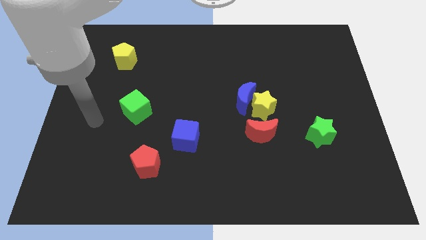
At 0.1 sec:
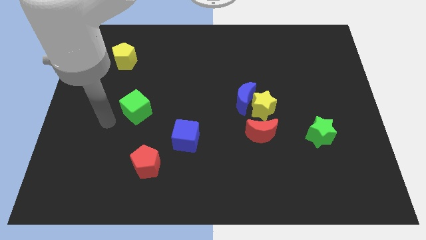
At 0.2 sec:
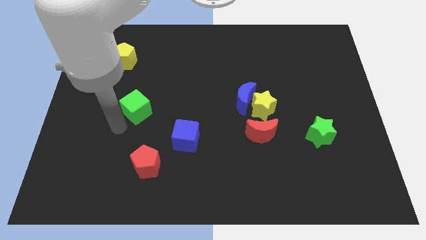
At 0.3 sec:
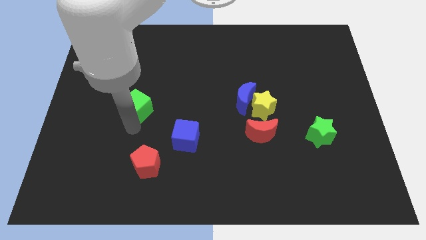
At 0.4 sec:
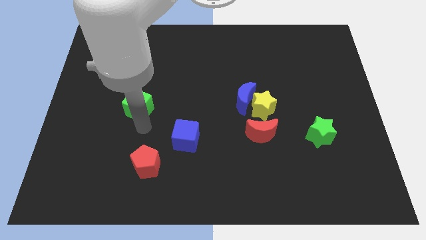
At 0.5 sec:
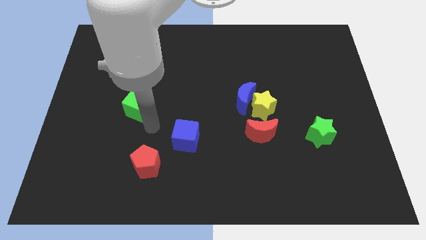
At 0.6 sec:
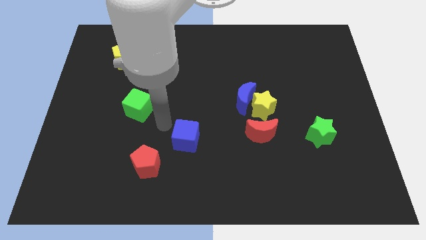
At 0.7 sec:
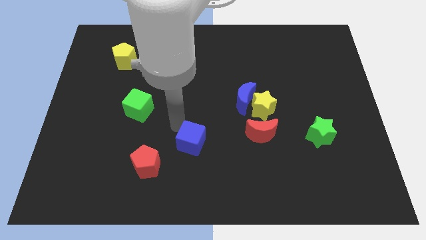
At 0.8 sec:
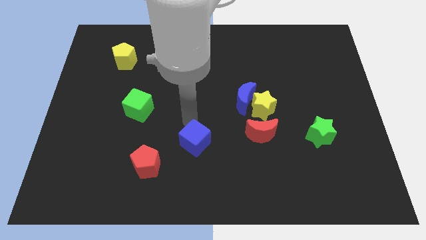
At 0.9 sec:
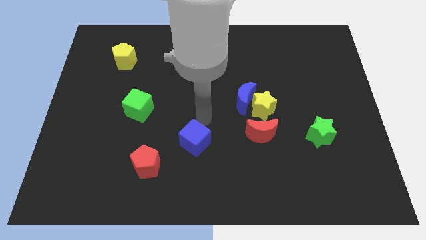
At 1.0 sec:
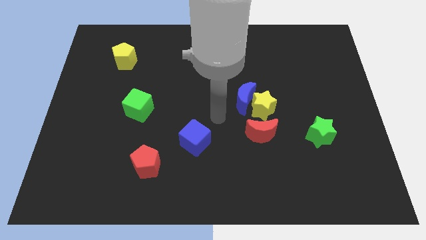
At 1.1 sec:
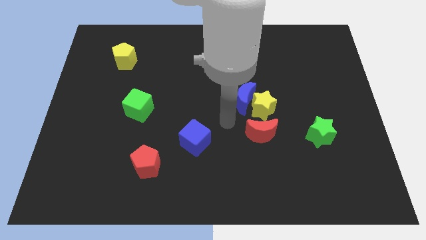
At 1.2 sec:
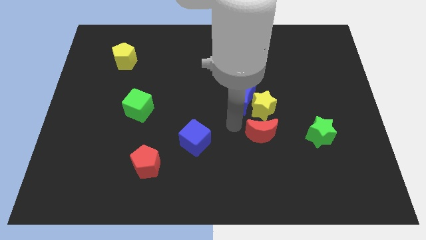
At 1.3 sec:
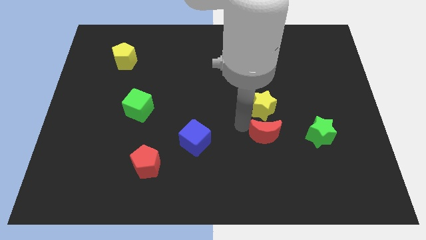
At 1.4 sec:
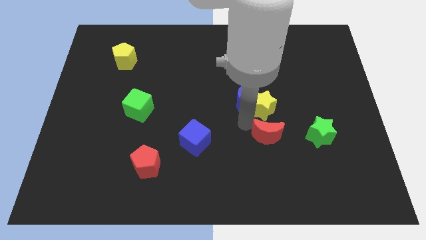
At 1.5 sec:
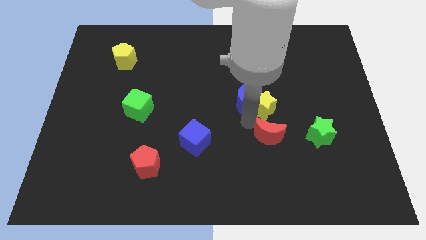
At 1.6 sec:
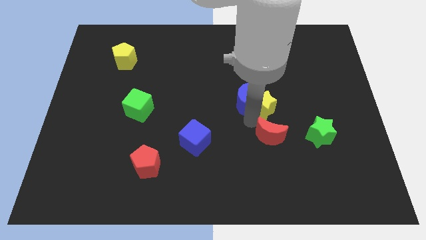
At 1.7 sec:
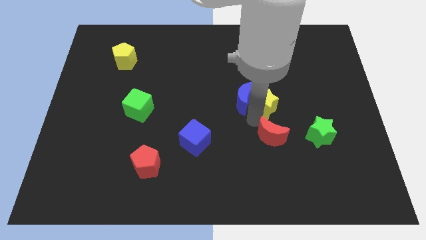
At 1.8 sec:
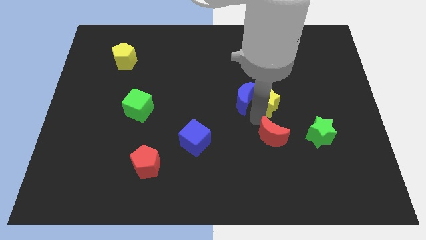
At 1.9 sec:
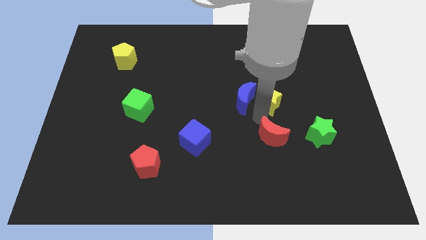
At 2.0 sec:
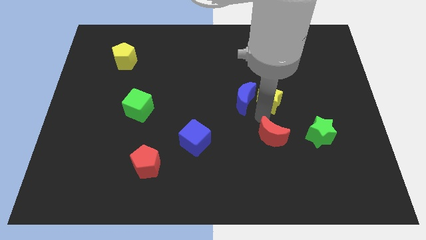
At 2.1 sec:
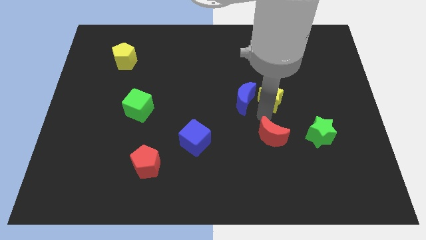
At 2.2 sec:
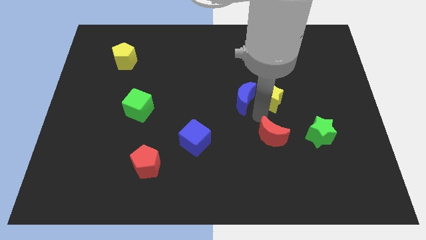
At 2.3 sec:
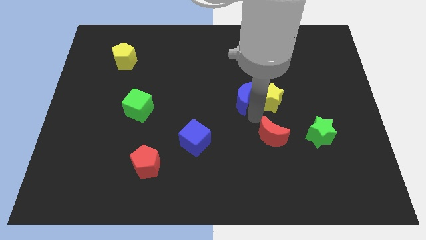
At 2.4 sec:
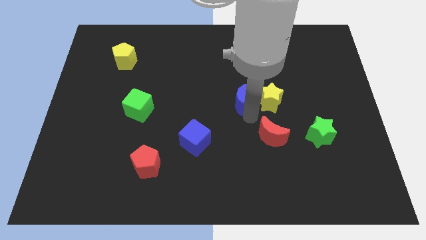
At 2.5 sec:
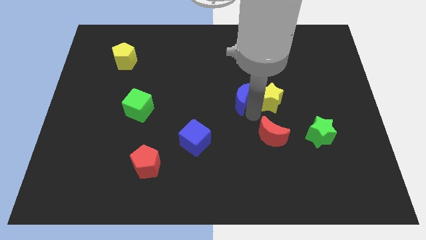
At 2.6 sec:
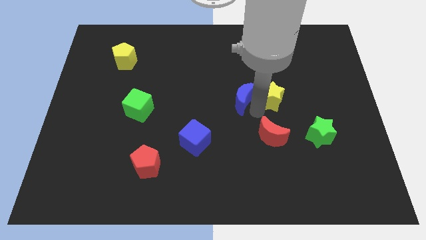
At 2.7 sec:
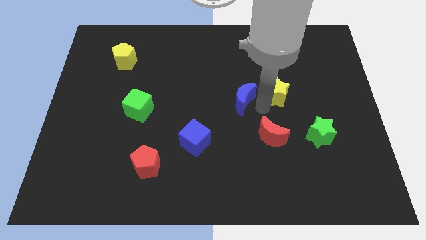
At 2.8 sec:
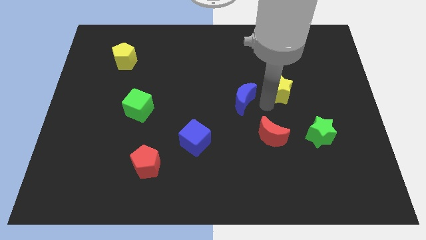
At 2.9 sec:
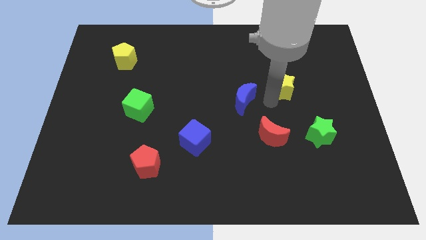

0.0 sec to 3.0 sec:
move the yellow star away from the blue moon and red moon

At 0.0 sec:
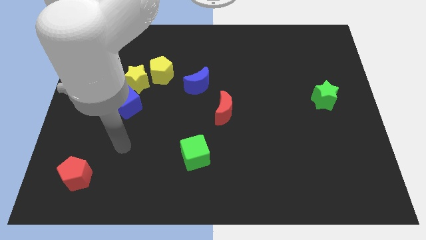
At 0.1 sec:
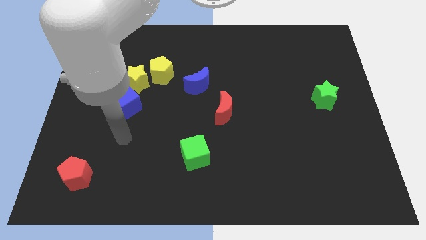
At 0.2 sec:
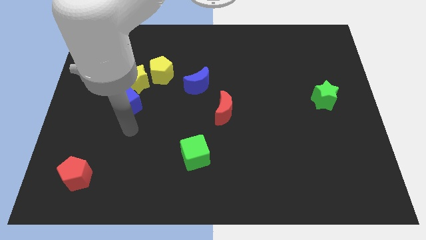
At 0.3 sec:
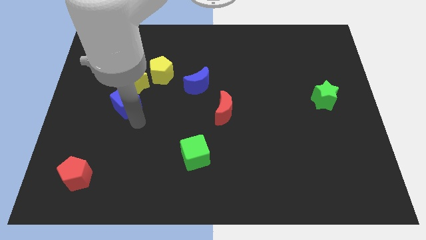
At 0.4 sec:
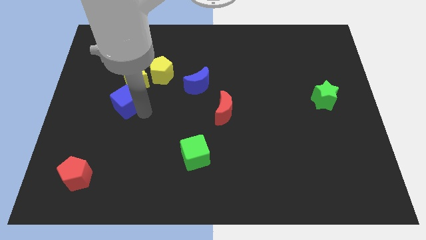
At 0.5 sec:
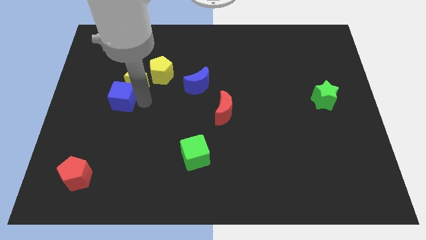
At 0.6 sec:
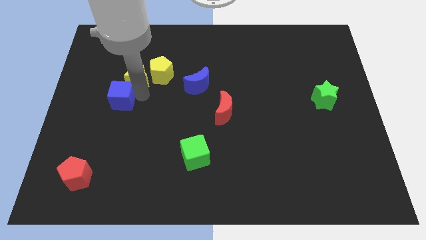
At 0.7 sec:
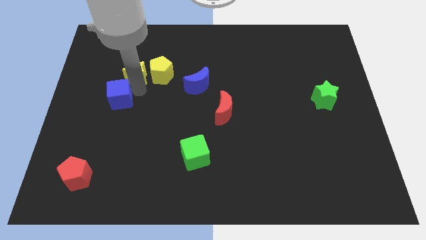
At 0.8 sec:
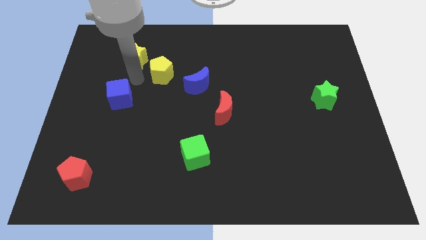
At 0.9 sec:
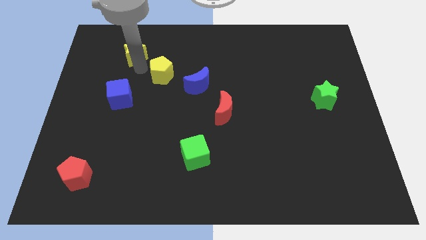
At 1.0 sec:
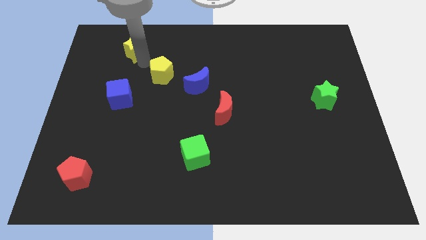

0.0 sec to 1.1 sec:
pull the yellow pentagon apart from the yellow star

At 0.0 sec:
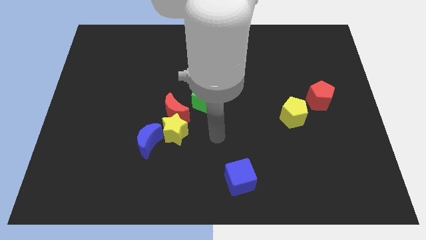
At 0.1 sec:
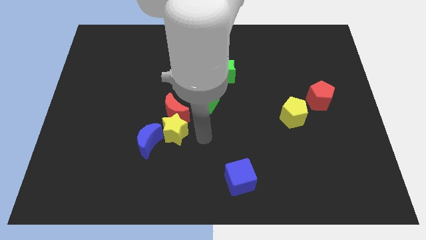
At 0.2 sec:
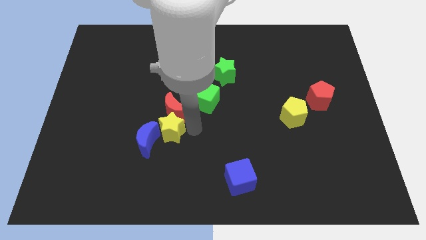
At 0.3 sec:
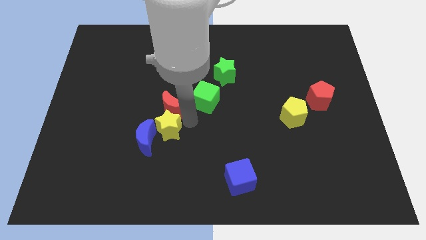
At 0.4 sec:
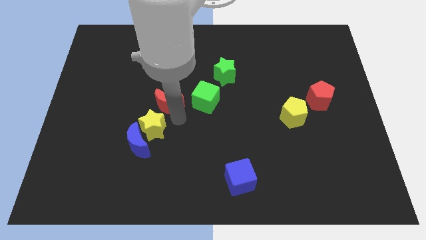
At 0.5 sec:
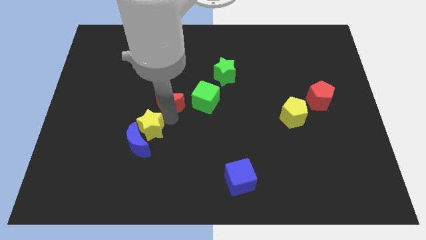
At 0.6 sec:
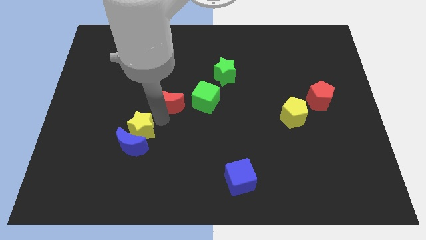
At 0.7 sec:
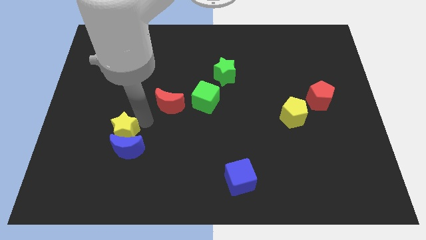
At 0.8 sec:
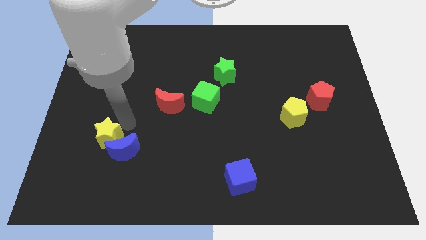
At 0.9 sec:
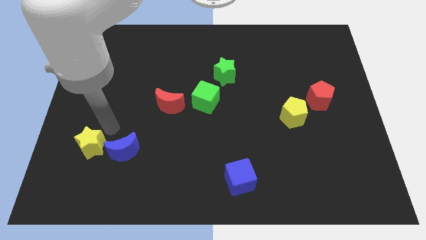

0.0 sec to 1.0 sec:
pull the yellow star apart from the red moon and blue moon

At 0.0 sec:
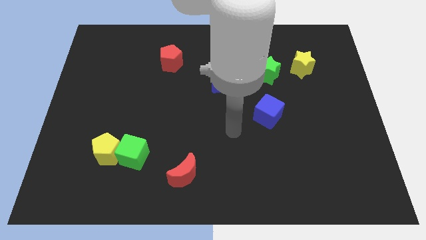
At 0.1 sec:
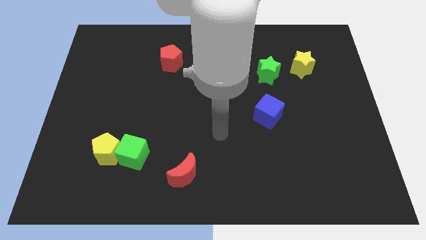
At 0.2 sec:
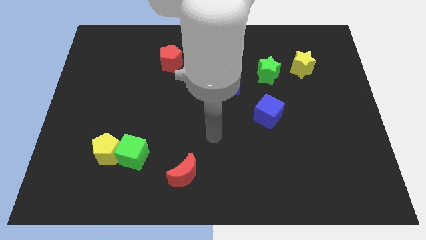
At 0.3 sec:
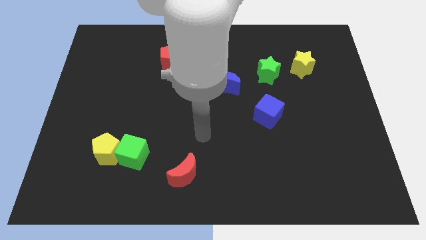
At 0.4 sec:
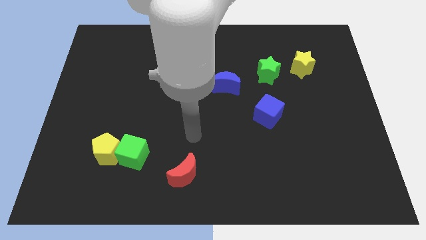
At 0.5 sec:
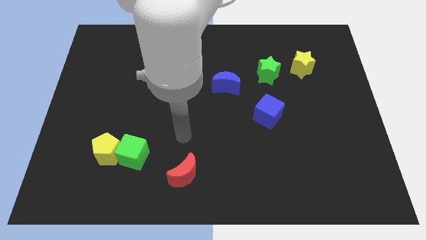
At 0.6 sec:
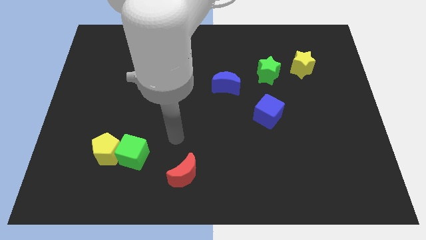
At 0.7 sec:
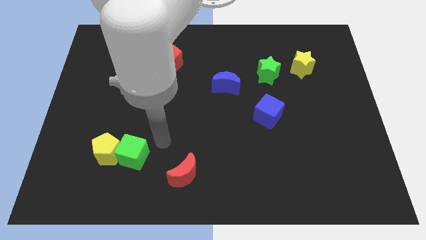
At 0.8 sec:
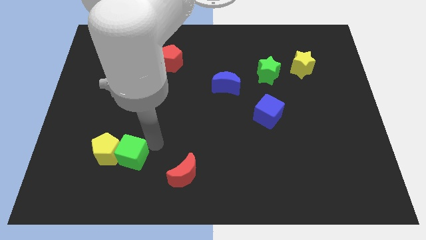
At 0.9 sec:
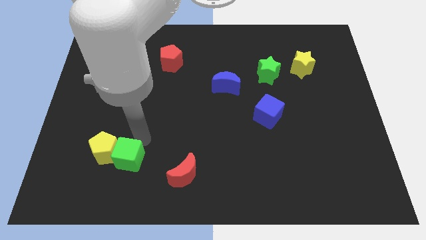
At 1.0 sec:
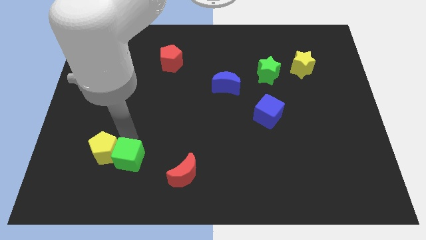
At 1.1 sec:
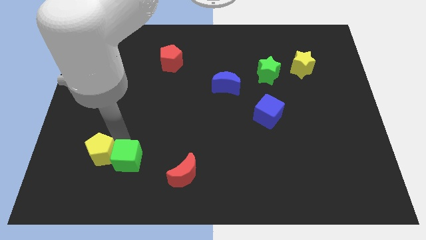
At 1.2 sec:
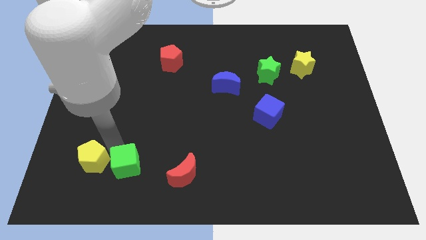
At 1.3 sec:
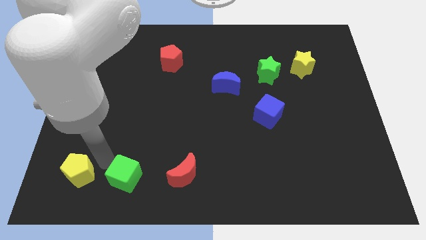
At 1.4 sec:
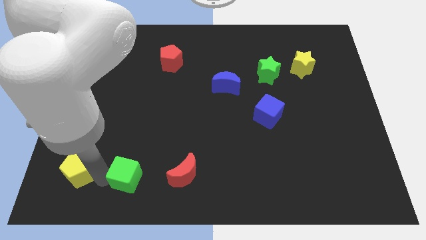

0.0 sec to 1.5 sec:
separate the green cube from the yellow pentagon

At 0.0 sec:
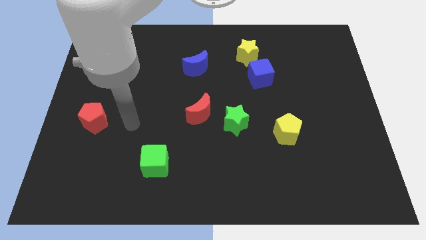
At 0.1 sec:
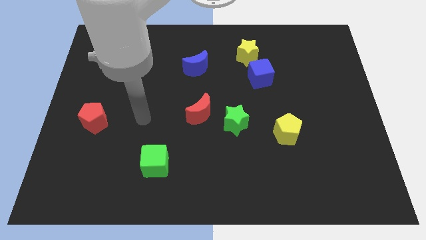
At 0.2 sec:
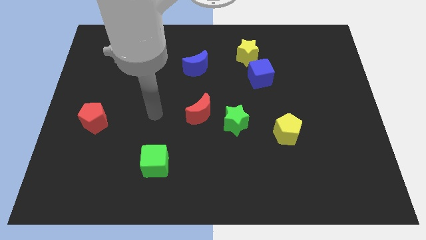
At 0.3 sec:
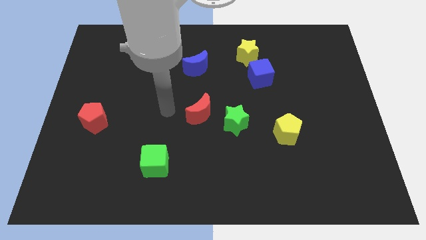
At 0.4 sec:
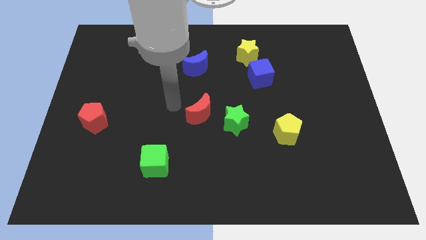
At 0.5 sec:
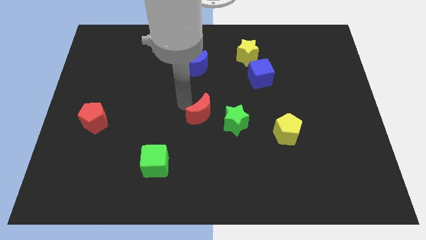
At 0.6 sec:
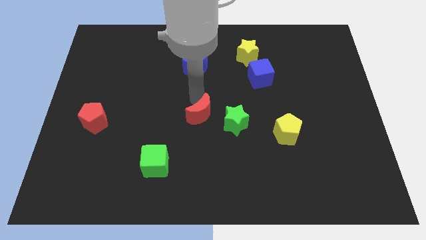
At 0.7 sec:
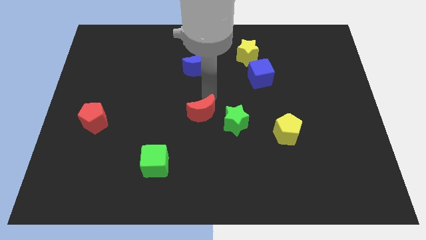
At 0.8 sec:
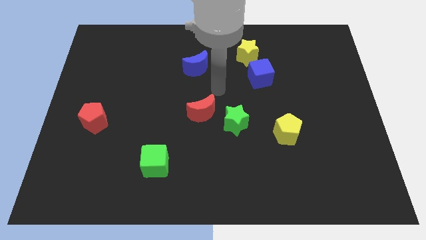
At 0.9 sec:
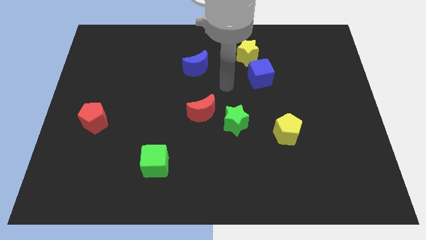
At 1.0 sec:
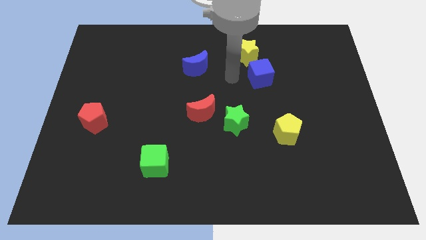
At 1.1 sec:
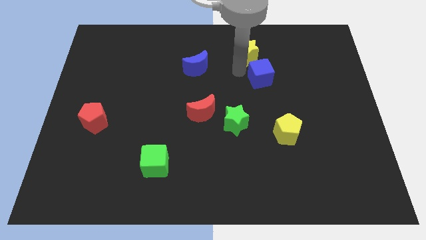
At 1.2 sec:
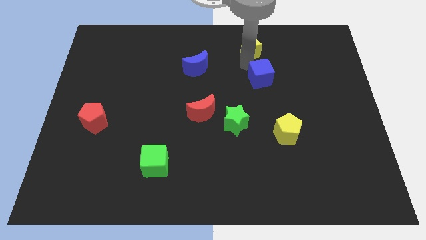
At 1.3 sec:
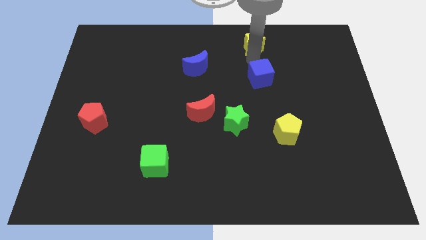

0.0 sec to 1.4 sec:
move the blue cube away from the yellow star

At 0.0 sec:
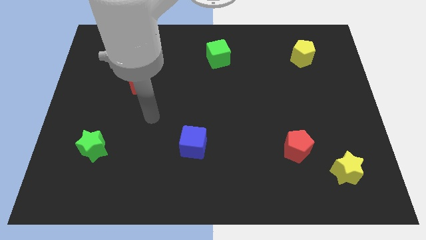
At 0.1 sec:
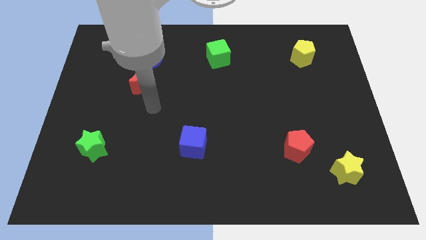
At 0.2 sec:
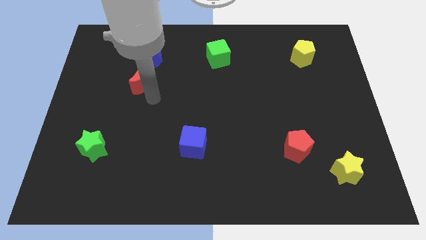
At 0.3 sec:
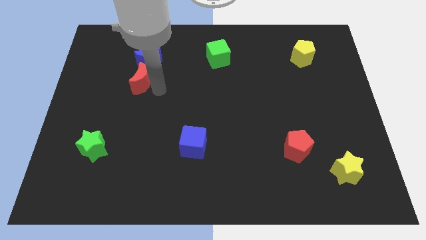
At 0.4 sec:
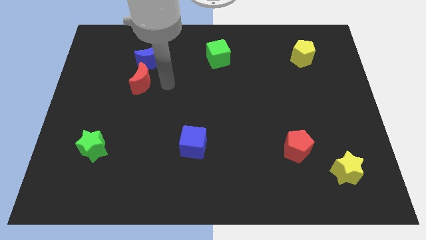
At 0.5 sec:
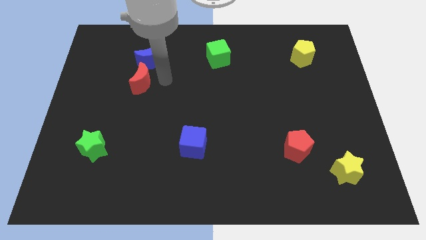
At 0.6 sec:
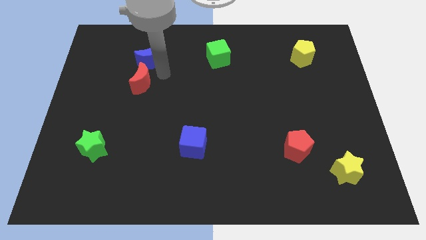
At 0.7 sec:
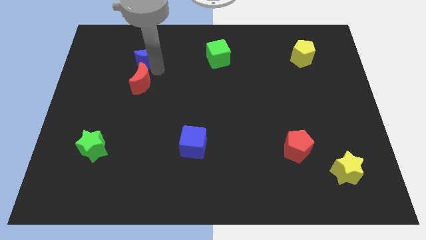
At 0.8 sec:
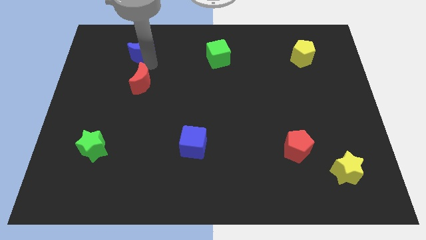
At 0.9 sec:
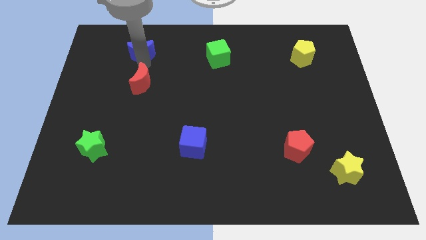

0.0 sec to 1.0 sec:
pull the red moon apart from the blue moon

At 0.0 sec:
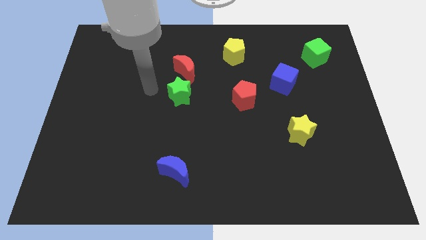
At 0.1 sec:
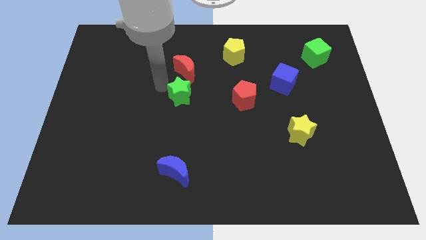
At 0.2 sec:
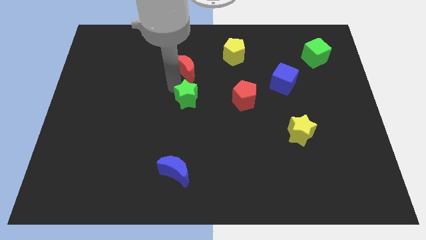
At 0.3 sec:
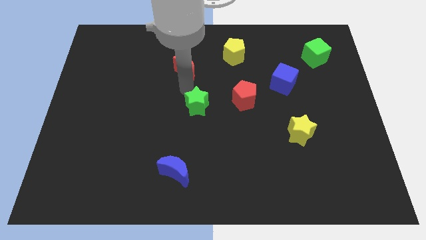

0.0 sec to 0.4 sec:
move the red moon away from the green star
